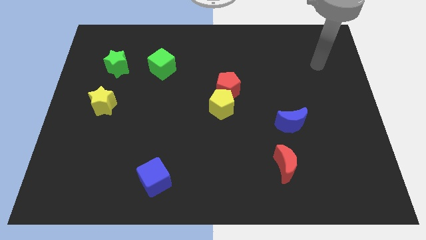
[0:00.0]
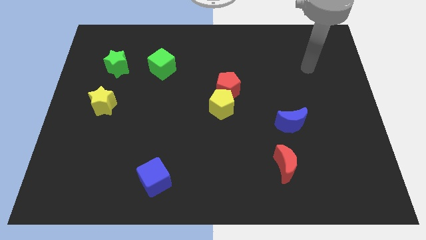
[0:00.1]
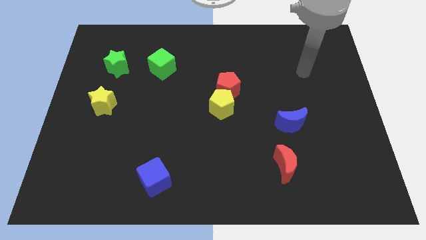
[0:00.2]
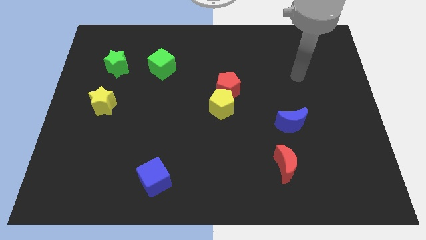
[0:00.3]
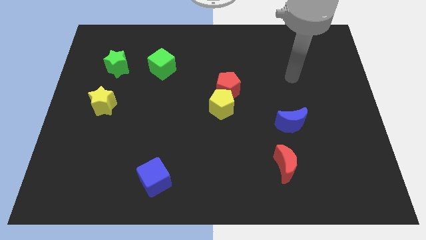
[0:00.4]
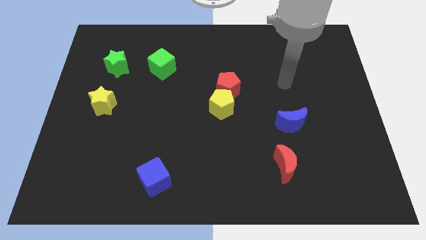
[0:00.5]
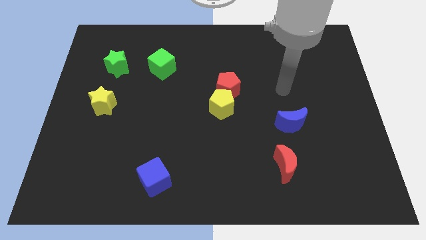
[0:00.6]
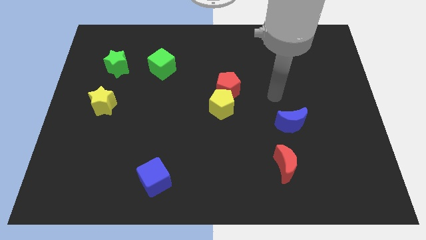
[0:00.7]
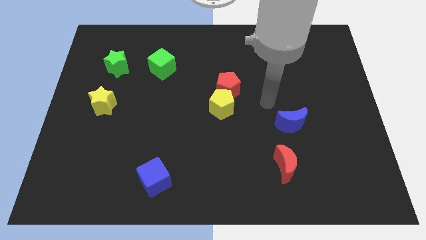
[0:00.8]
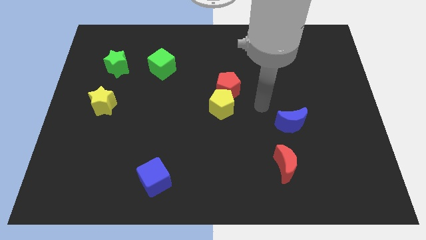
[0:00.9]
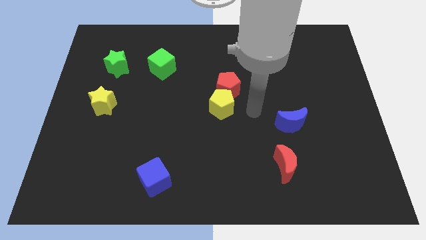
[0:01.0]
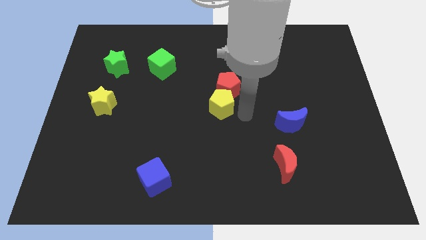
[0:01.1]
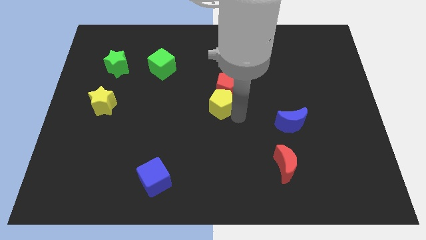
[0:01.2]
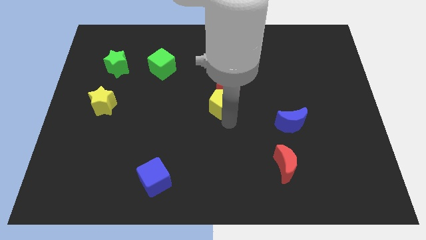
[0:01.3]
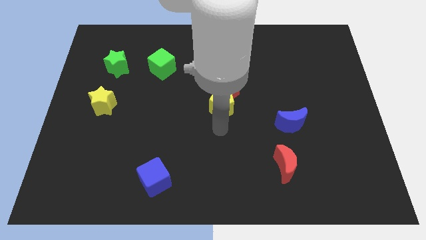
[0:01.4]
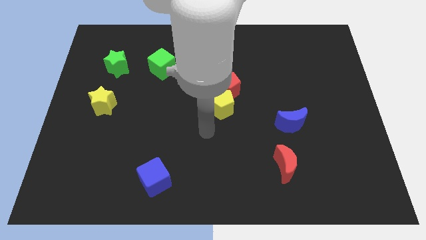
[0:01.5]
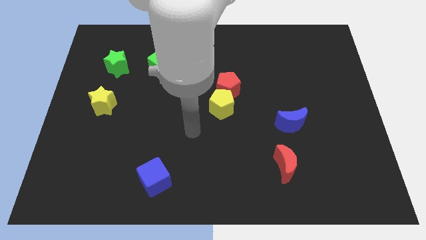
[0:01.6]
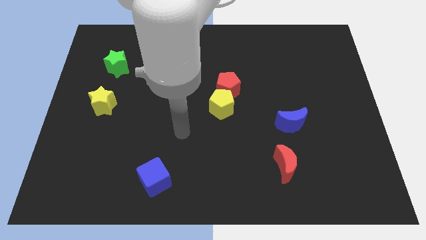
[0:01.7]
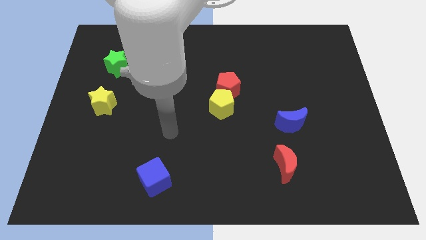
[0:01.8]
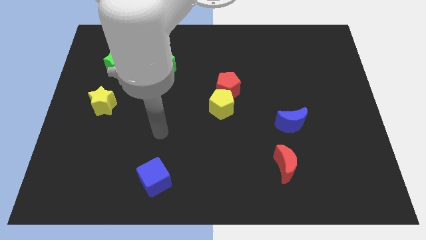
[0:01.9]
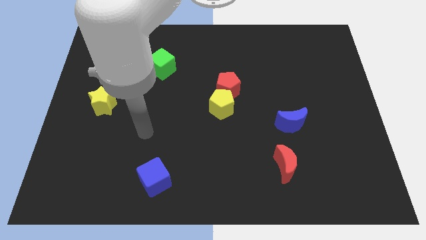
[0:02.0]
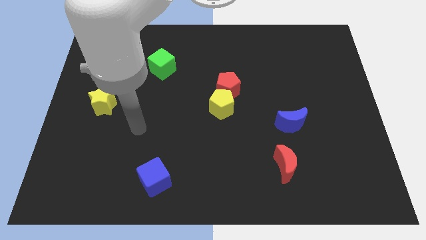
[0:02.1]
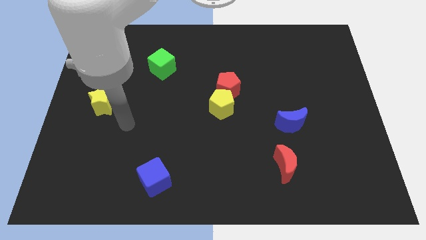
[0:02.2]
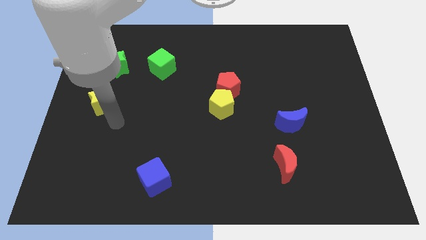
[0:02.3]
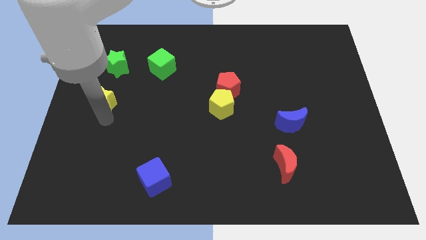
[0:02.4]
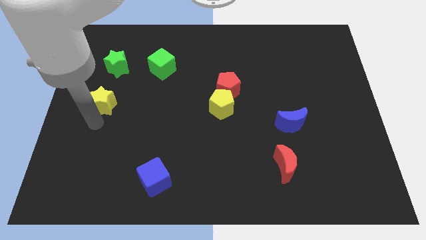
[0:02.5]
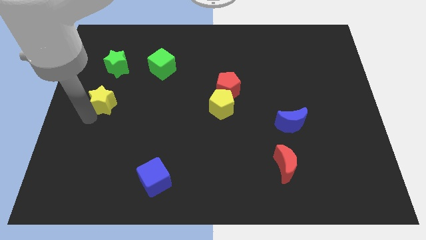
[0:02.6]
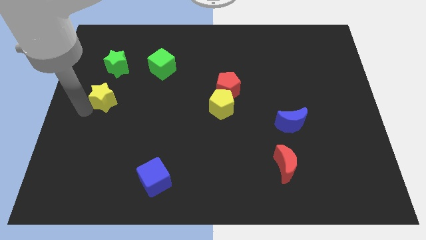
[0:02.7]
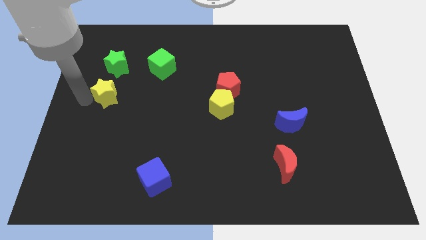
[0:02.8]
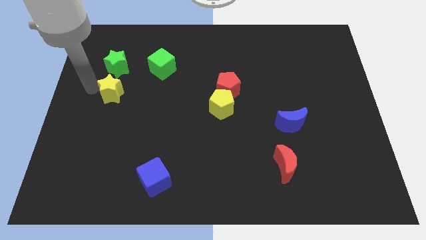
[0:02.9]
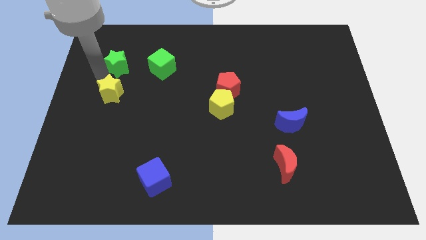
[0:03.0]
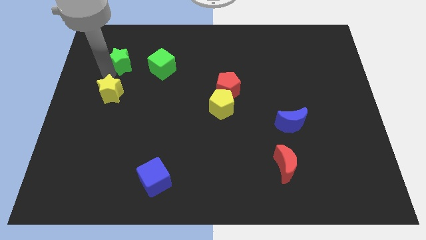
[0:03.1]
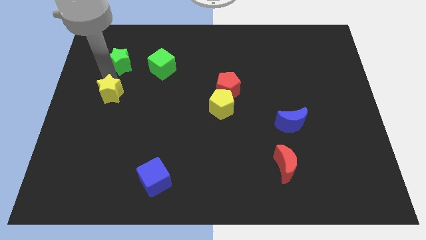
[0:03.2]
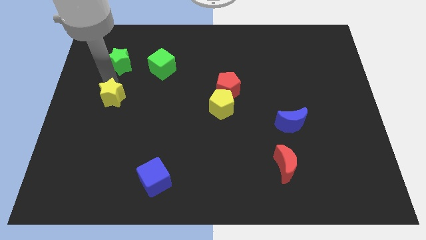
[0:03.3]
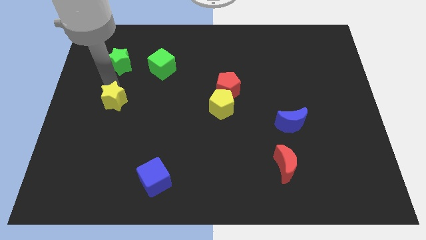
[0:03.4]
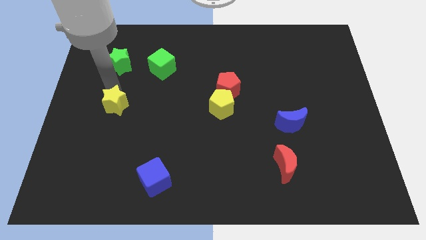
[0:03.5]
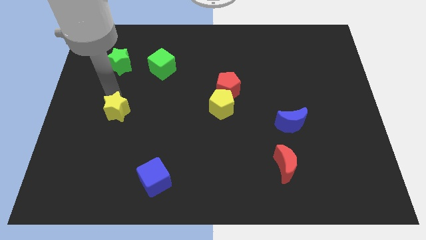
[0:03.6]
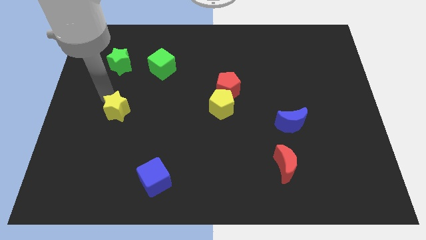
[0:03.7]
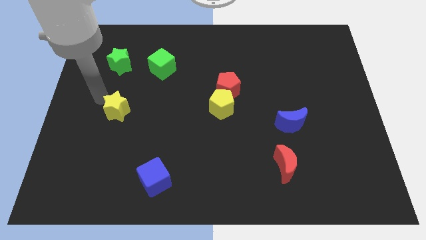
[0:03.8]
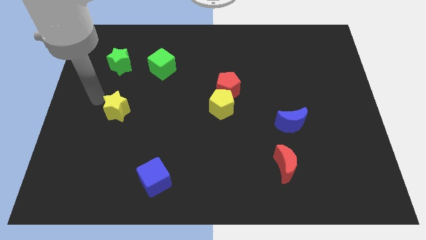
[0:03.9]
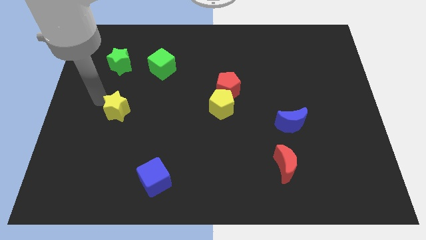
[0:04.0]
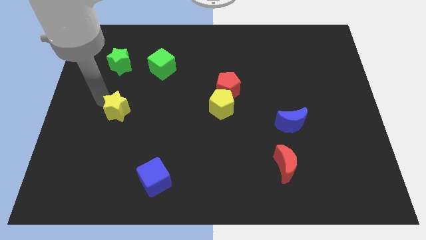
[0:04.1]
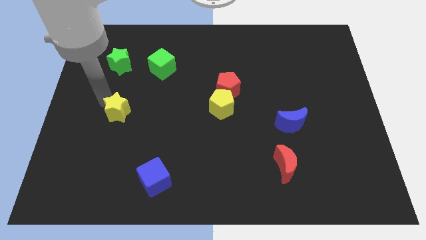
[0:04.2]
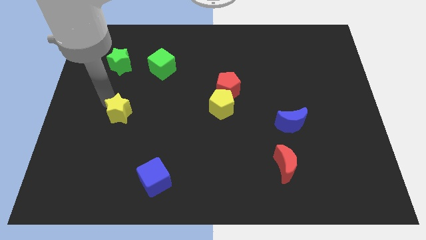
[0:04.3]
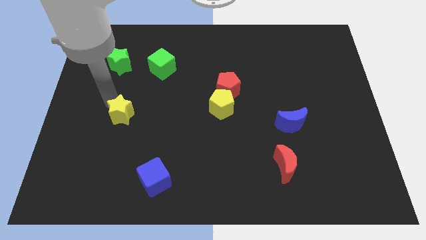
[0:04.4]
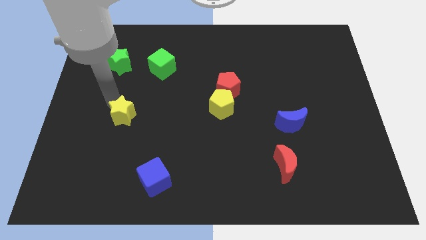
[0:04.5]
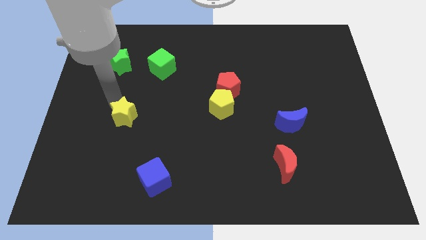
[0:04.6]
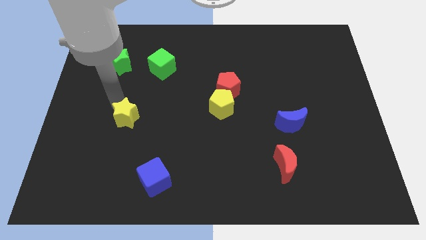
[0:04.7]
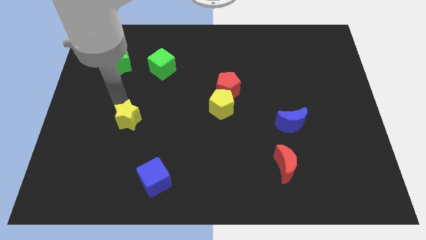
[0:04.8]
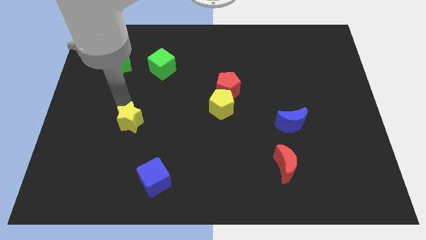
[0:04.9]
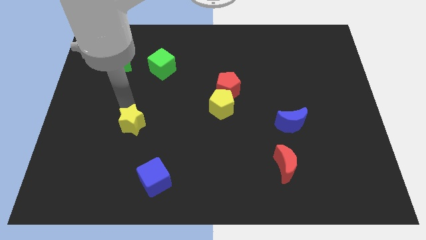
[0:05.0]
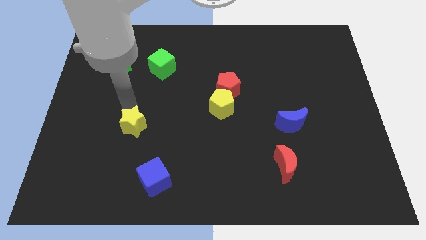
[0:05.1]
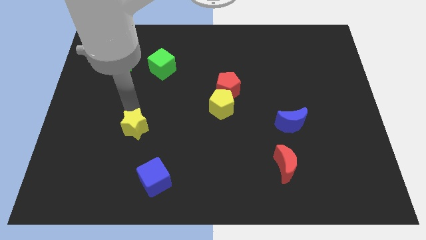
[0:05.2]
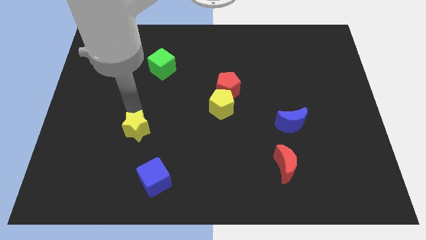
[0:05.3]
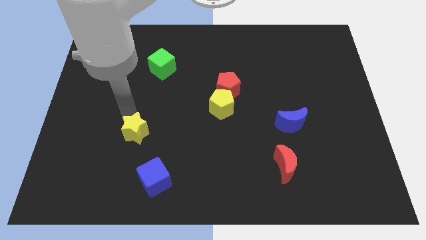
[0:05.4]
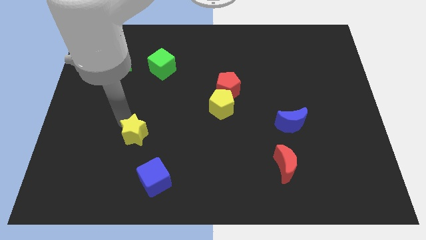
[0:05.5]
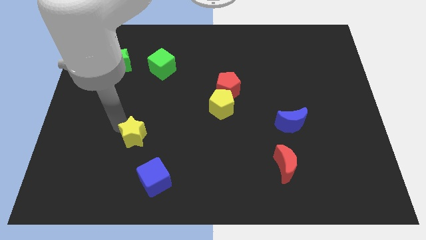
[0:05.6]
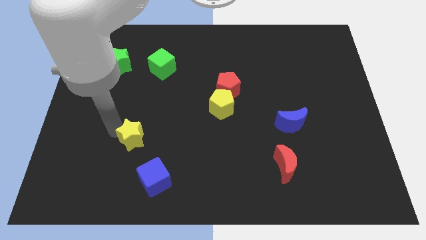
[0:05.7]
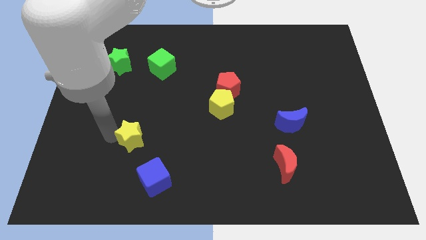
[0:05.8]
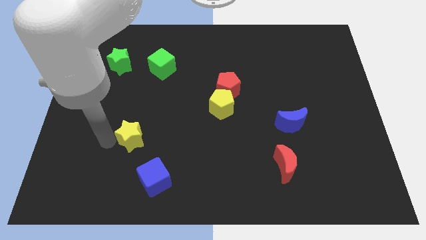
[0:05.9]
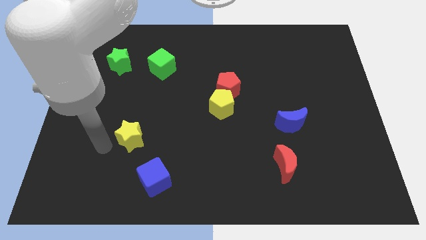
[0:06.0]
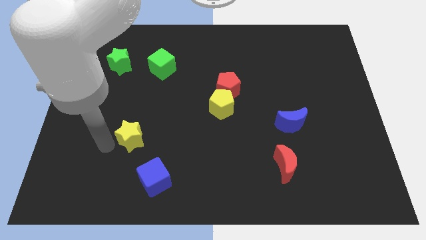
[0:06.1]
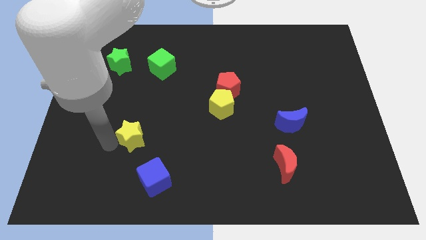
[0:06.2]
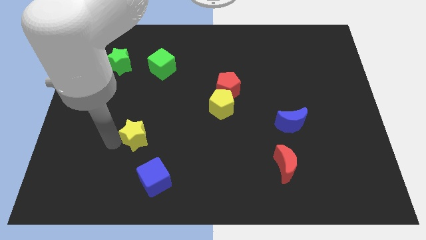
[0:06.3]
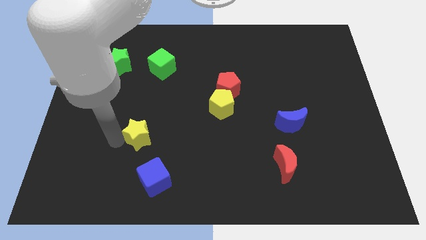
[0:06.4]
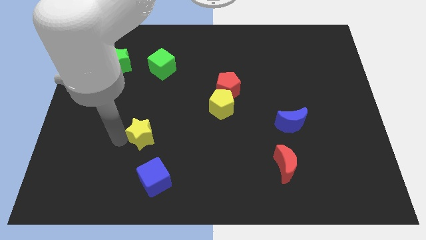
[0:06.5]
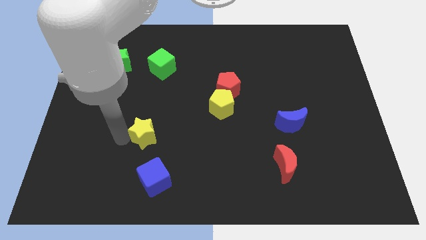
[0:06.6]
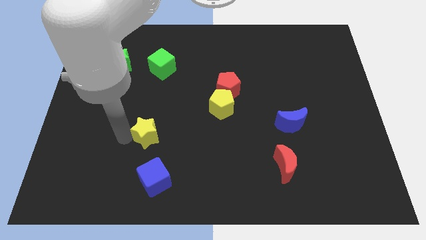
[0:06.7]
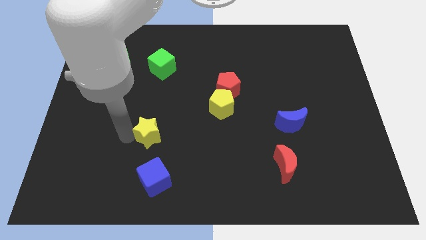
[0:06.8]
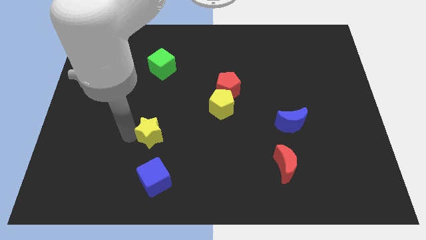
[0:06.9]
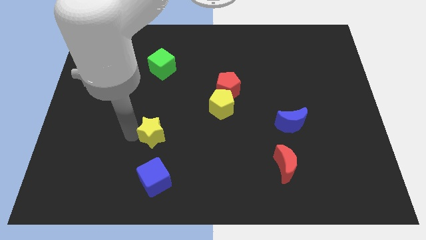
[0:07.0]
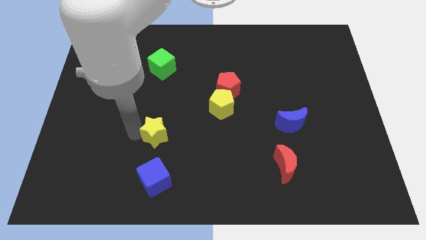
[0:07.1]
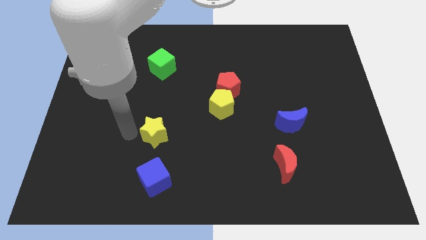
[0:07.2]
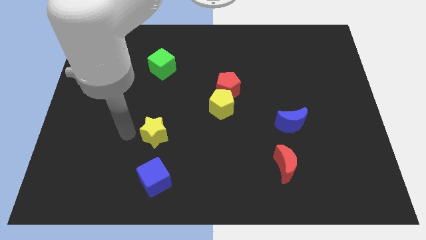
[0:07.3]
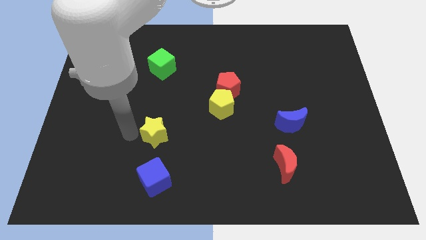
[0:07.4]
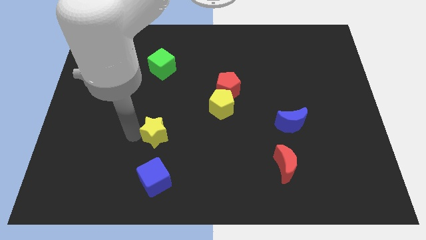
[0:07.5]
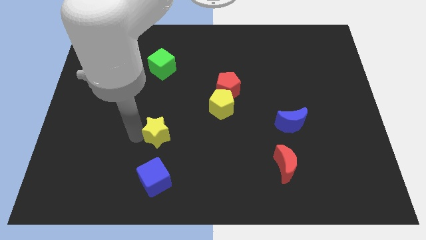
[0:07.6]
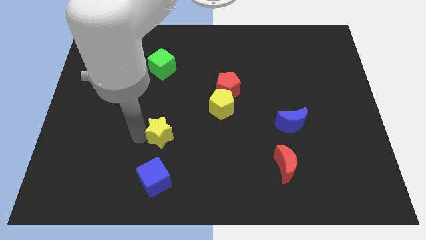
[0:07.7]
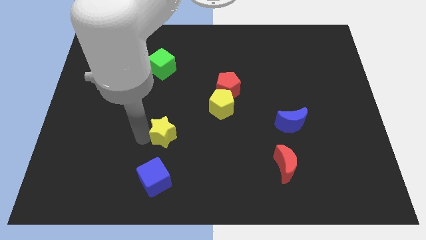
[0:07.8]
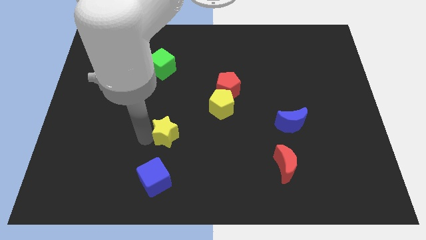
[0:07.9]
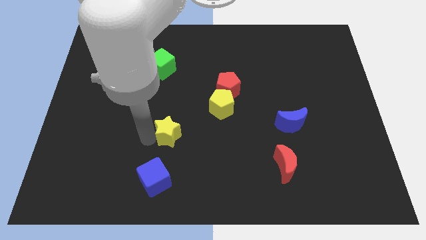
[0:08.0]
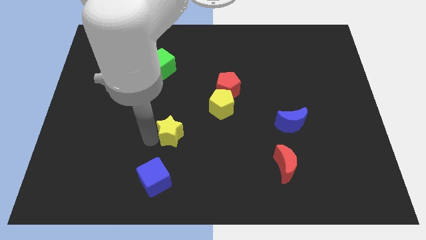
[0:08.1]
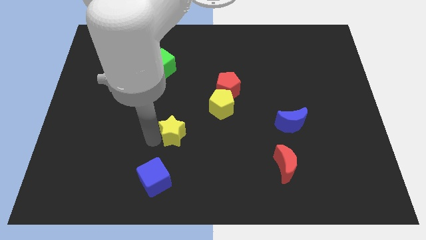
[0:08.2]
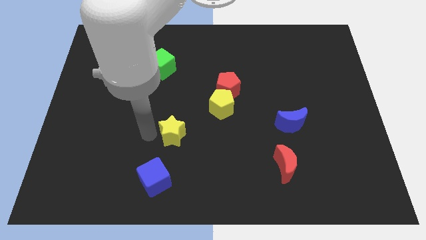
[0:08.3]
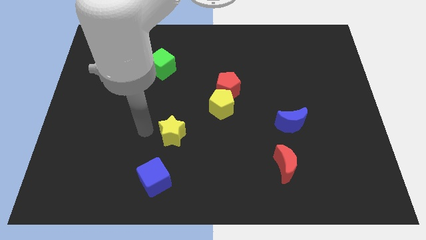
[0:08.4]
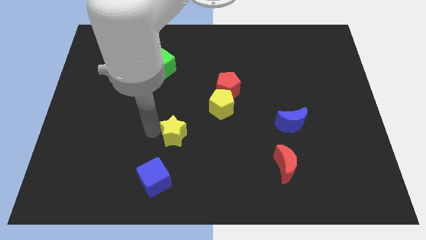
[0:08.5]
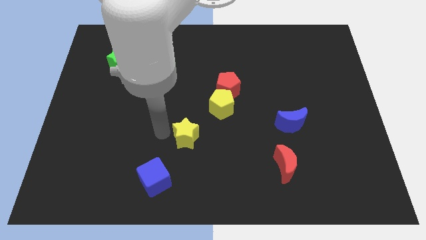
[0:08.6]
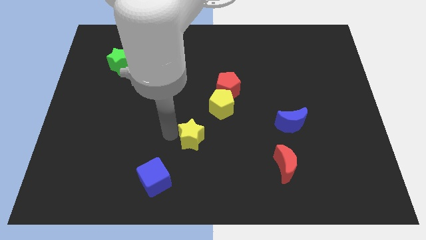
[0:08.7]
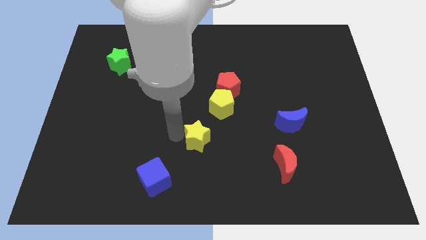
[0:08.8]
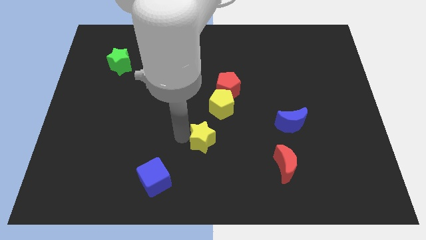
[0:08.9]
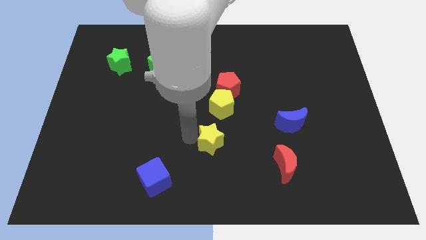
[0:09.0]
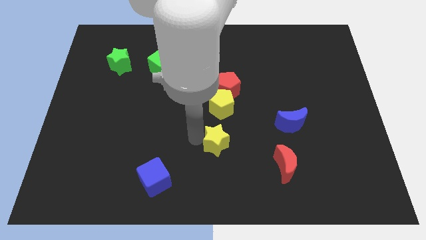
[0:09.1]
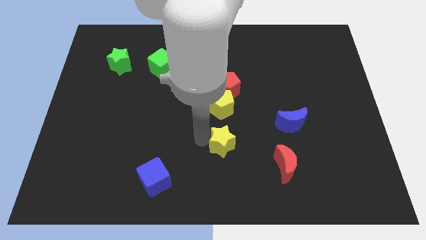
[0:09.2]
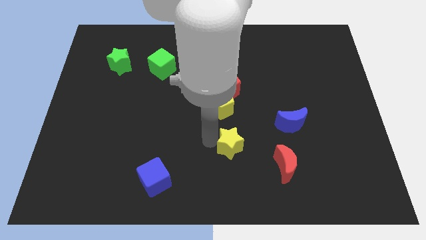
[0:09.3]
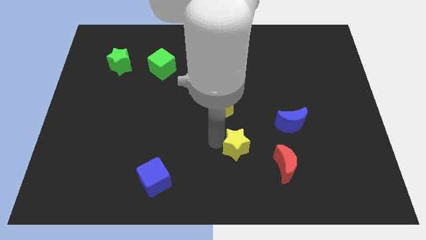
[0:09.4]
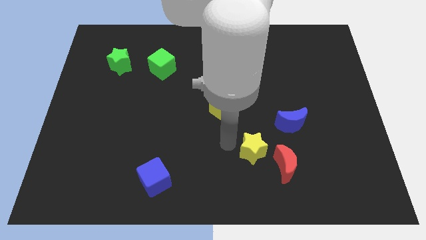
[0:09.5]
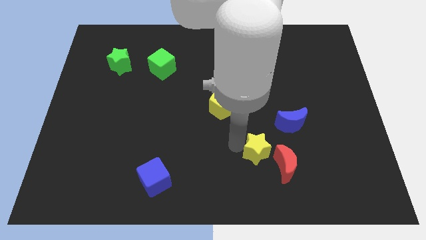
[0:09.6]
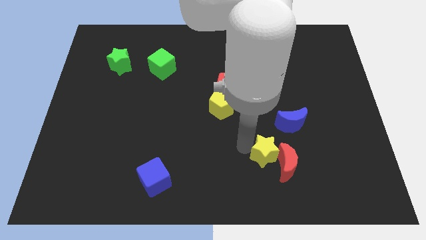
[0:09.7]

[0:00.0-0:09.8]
move the yellow star close to the red moon
